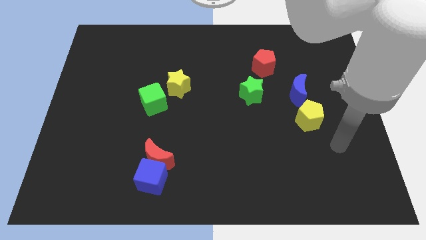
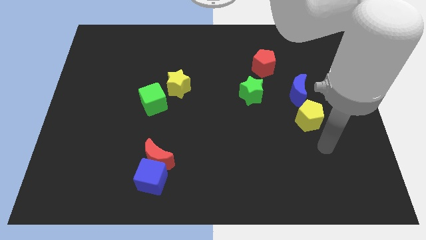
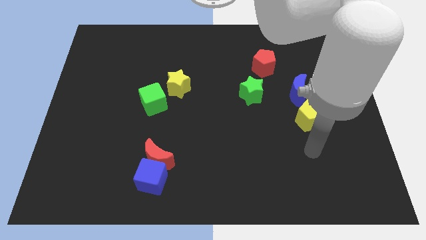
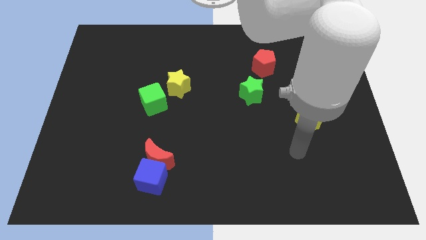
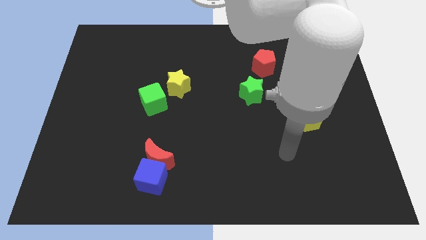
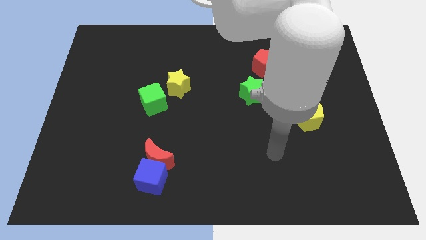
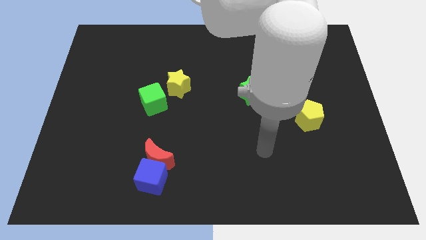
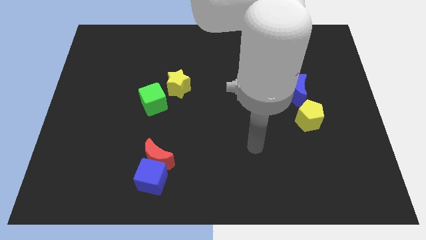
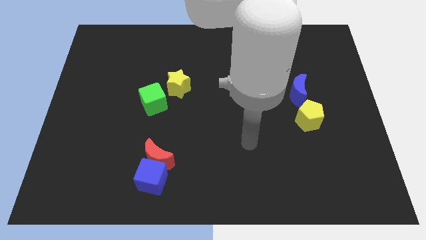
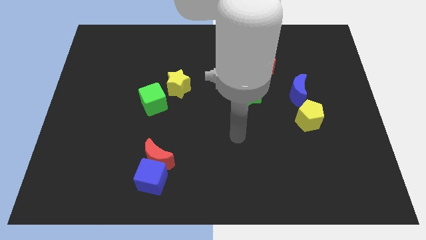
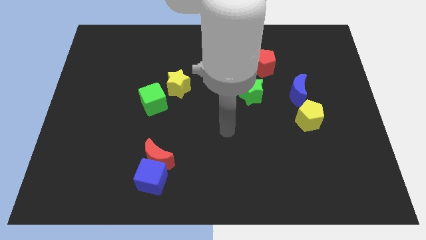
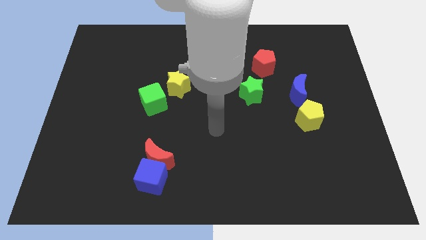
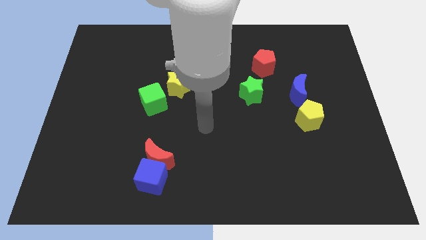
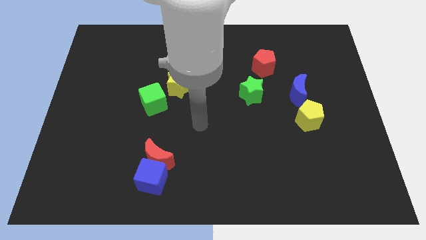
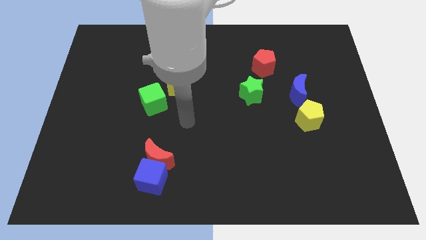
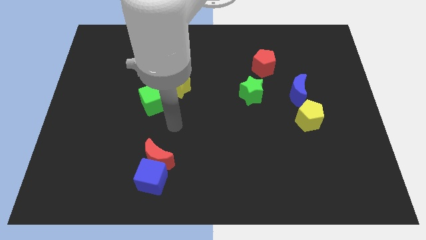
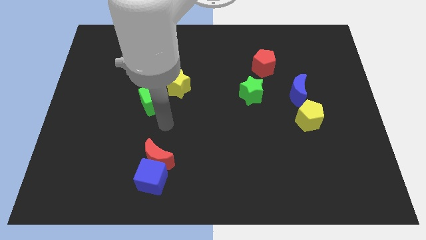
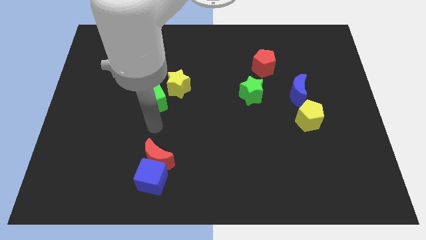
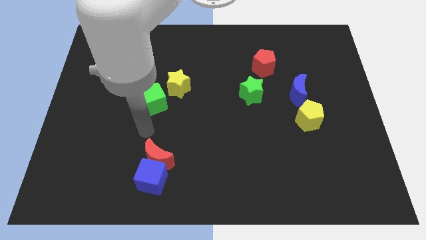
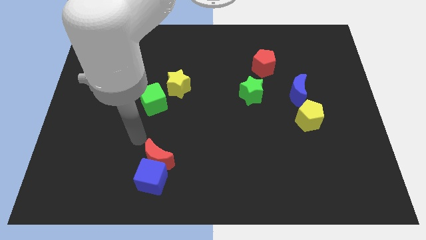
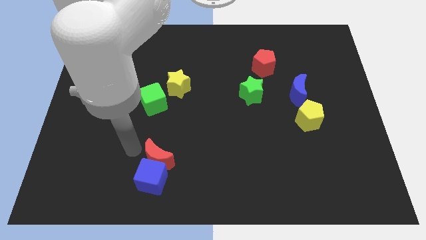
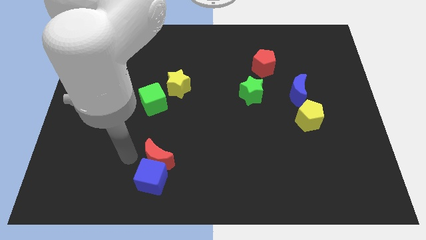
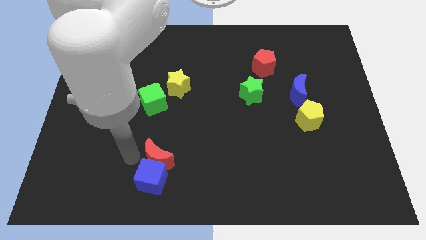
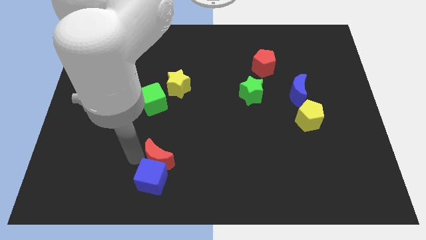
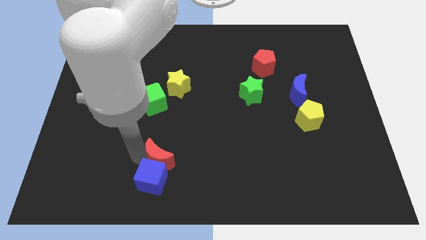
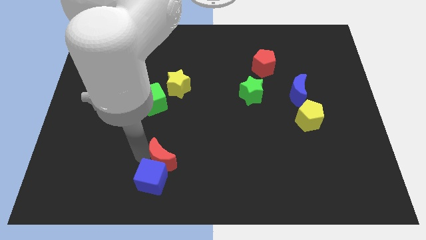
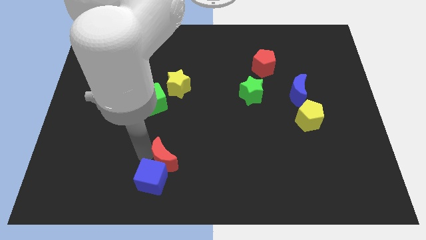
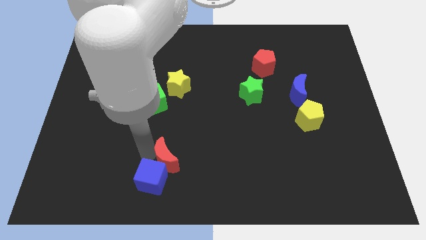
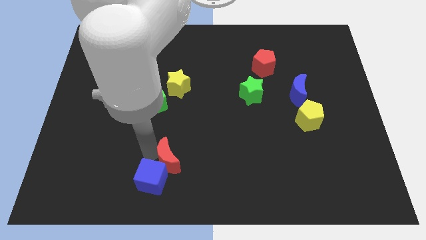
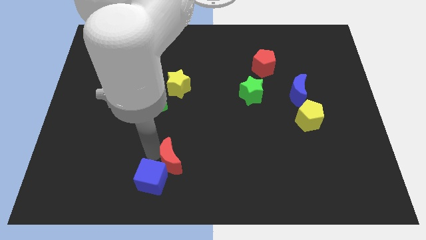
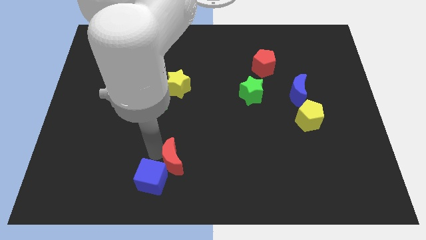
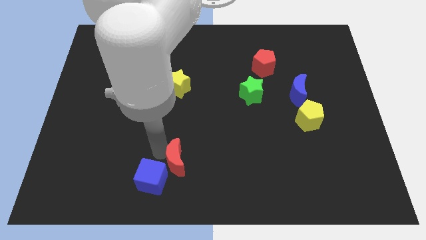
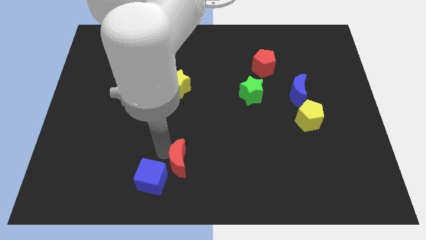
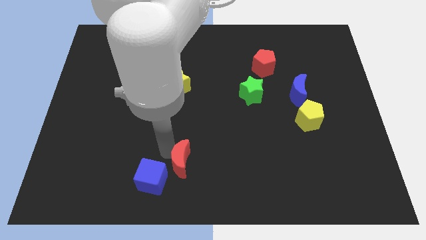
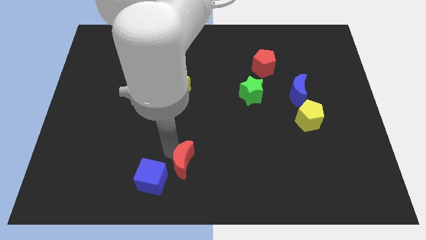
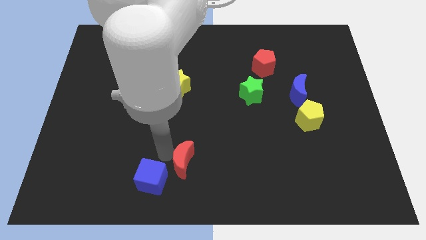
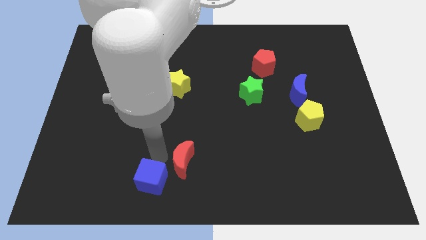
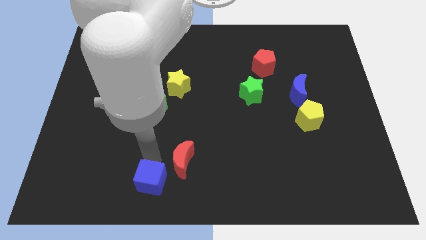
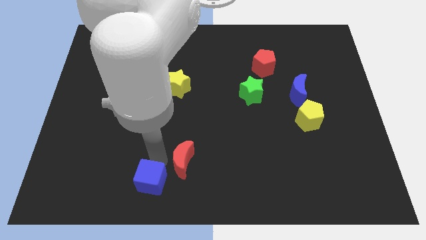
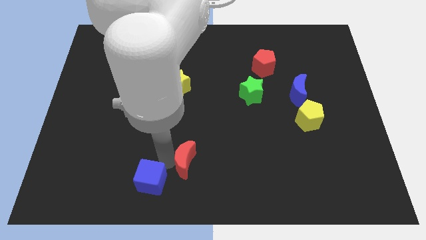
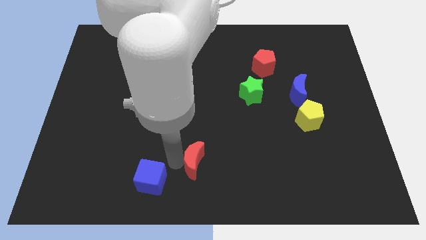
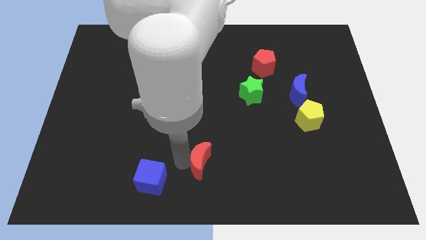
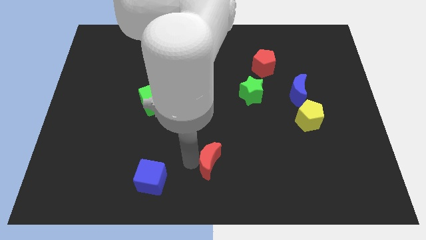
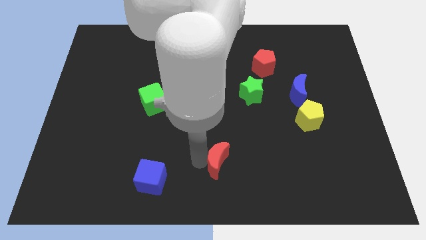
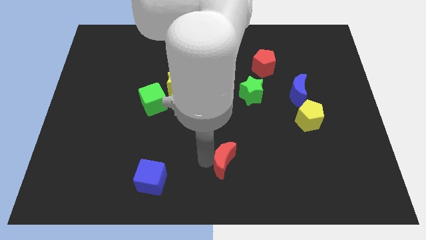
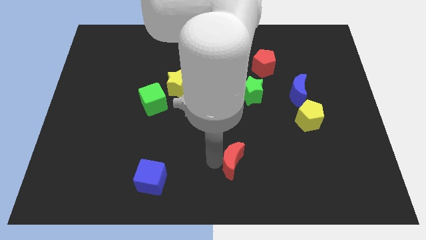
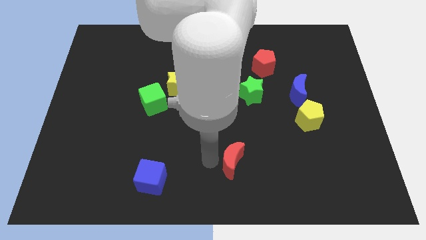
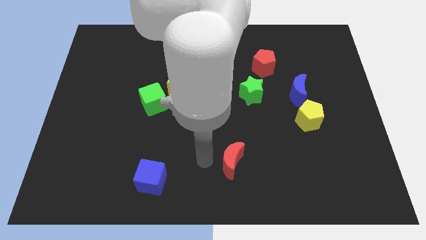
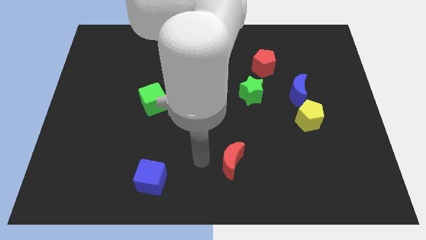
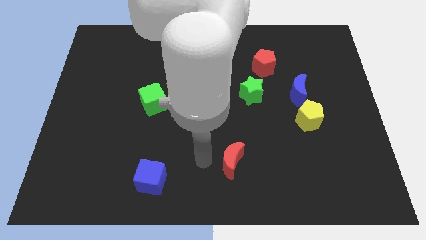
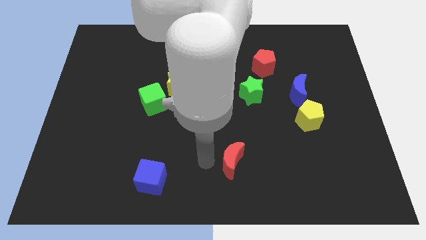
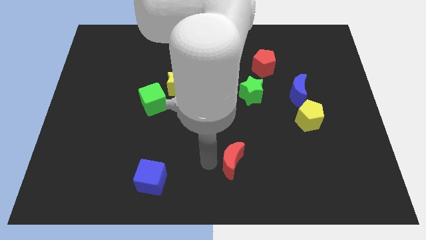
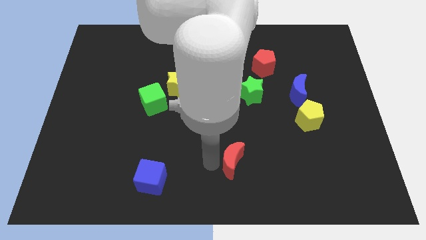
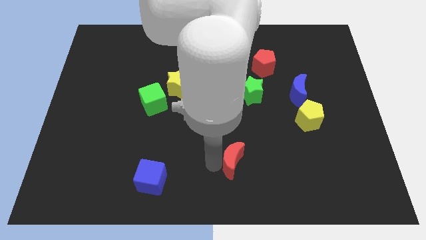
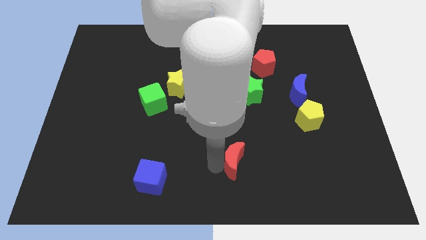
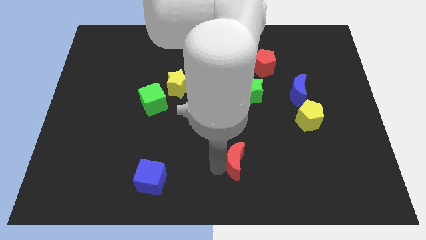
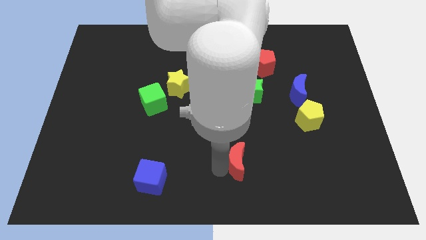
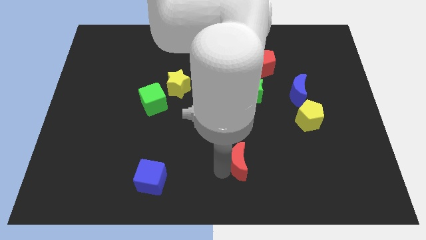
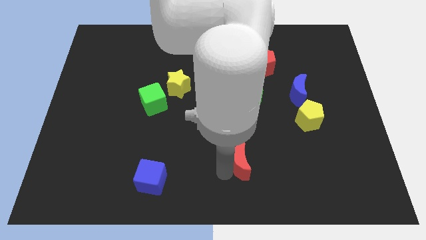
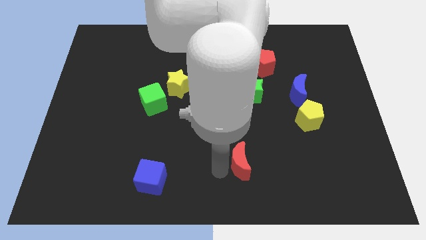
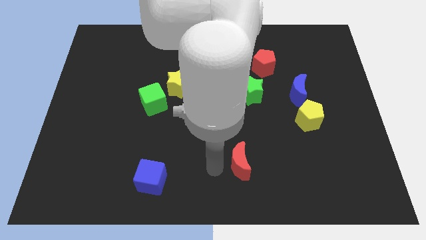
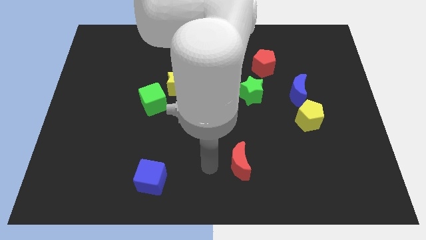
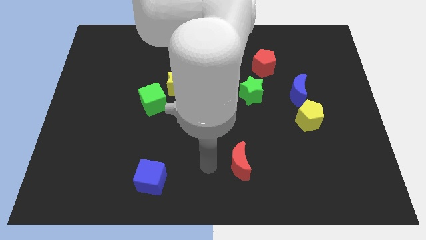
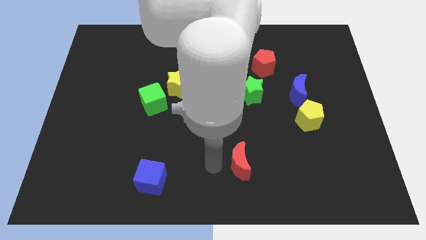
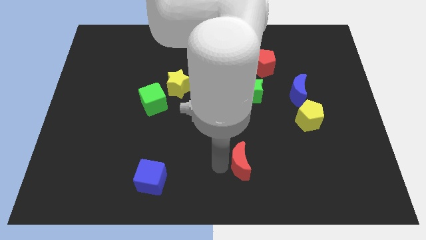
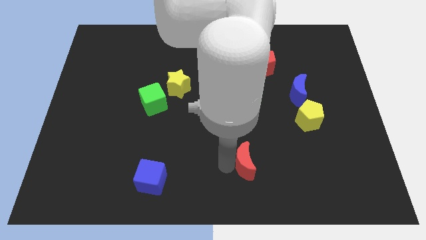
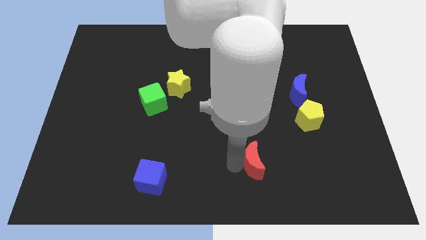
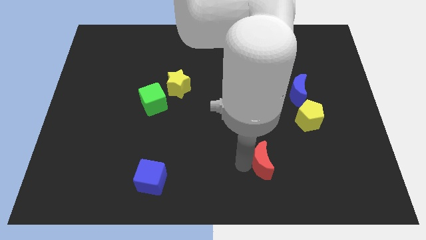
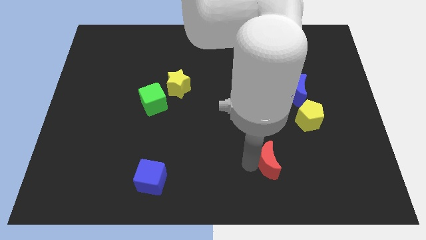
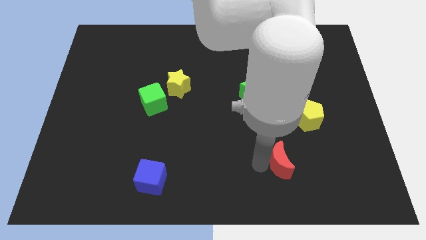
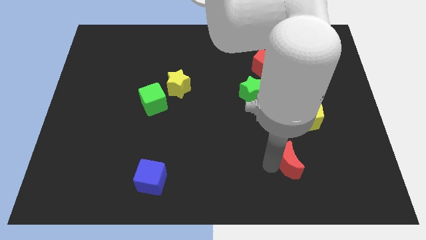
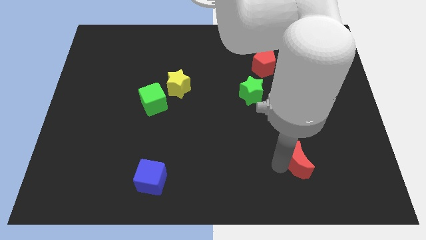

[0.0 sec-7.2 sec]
slide the red moon below the yellow pentagon
